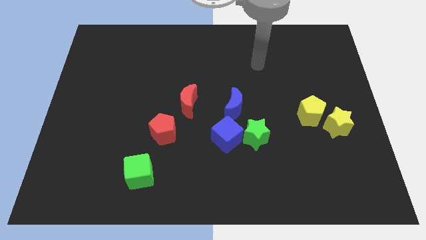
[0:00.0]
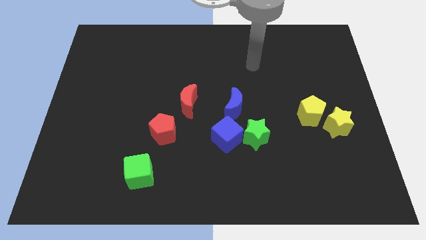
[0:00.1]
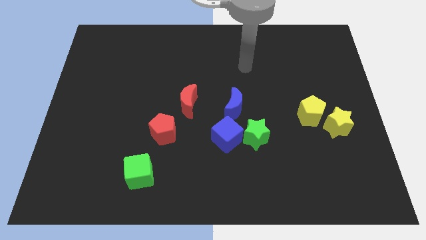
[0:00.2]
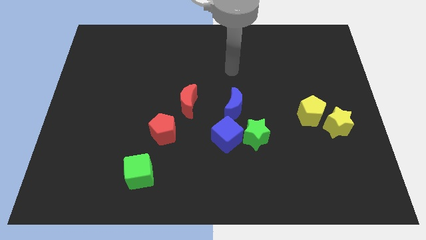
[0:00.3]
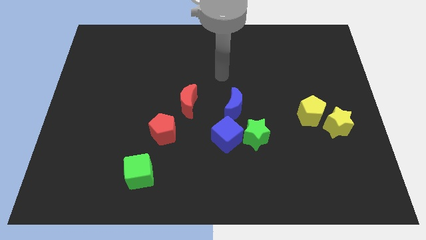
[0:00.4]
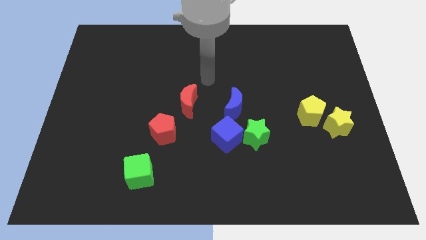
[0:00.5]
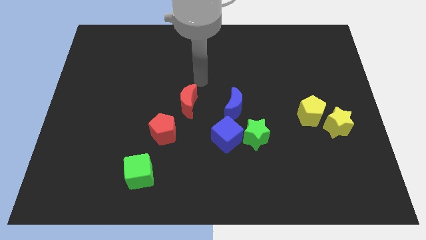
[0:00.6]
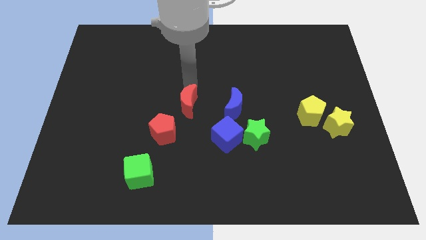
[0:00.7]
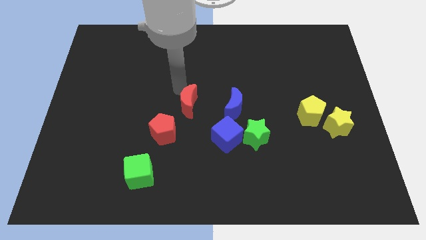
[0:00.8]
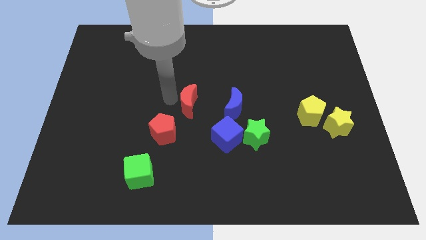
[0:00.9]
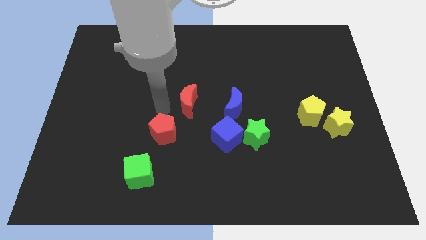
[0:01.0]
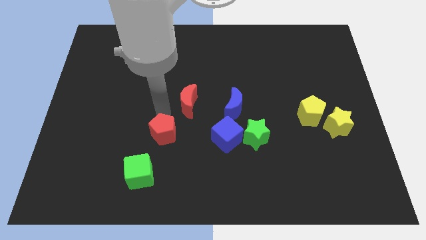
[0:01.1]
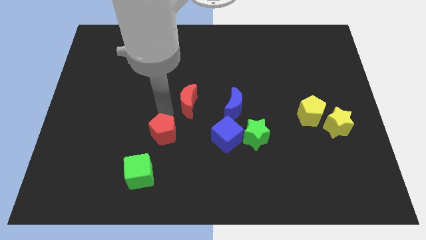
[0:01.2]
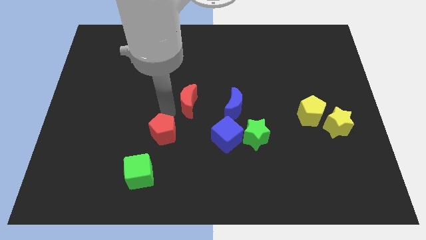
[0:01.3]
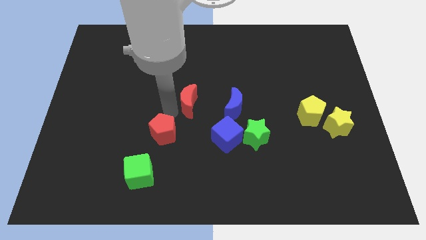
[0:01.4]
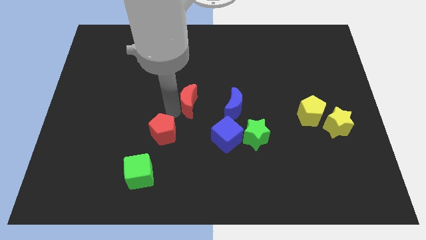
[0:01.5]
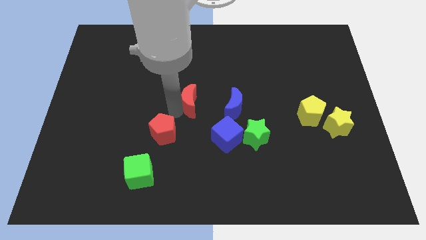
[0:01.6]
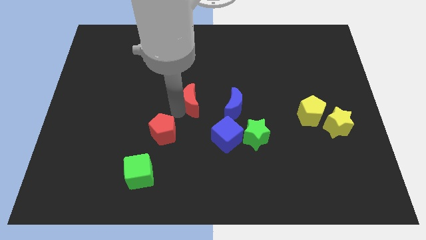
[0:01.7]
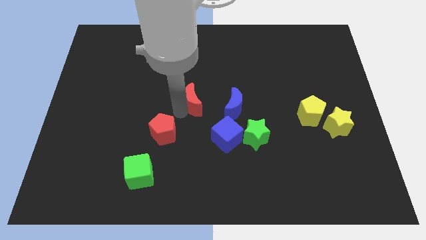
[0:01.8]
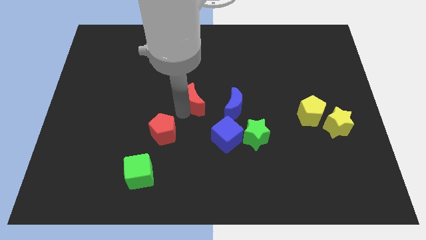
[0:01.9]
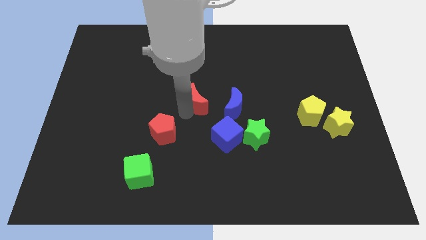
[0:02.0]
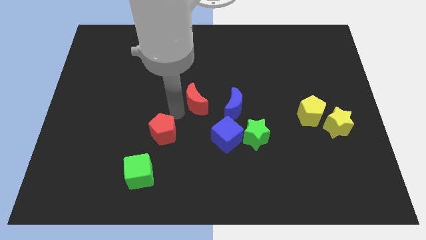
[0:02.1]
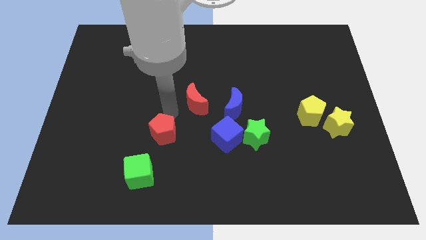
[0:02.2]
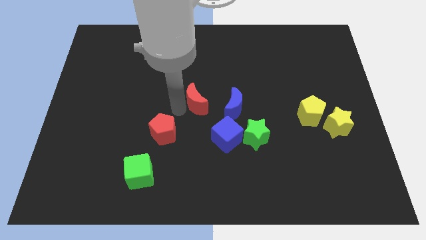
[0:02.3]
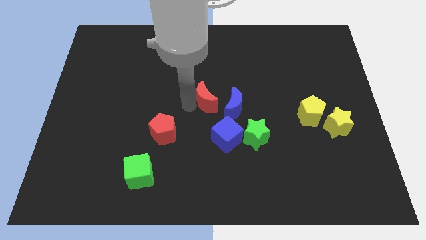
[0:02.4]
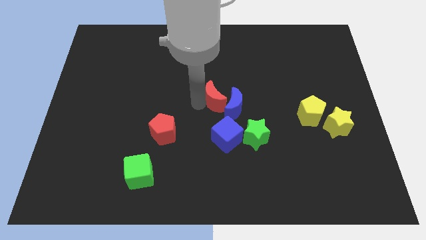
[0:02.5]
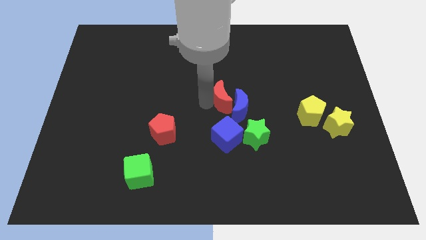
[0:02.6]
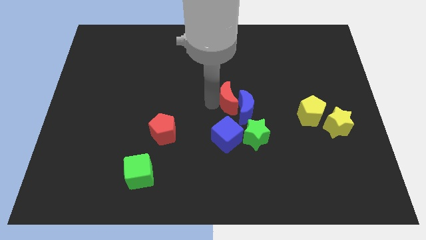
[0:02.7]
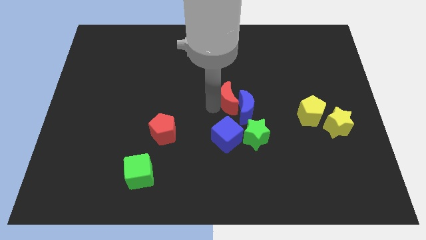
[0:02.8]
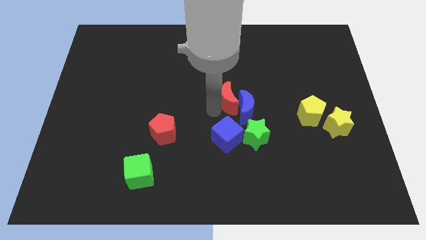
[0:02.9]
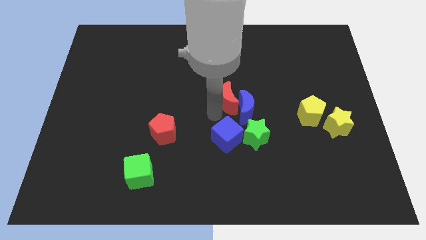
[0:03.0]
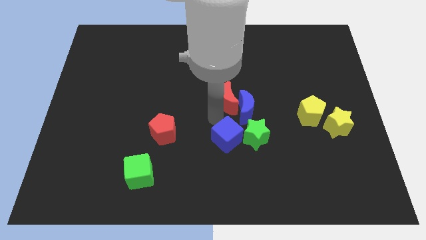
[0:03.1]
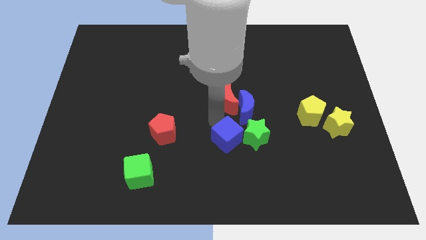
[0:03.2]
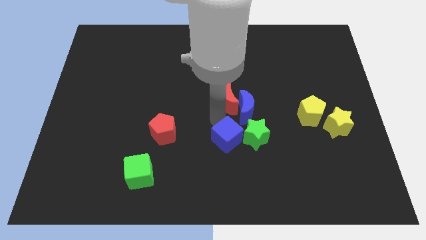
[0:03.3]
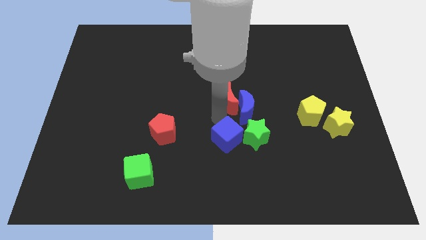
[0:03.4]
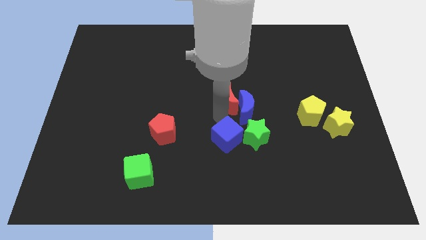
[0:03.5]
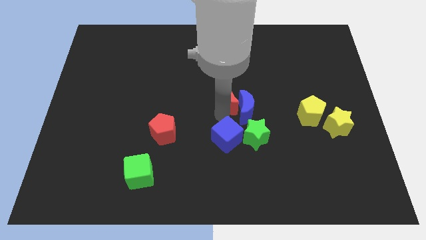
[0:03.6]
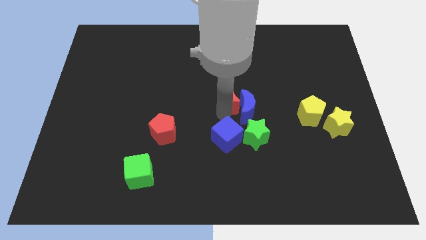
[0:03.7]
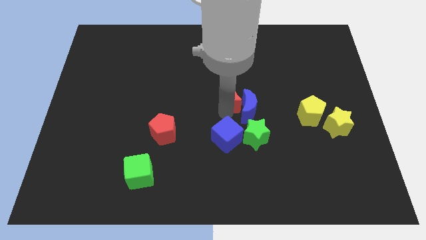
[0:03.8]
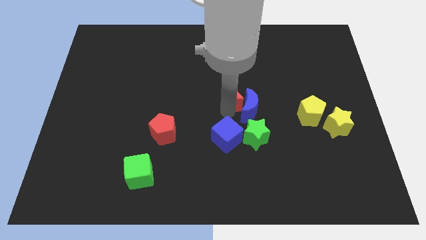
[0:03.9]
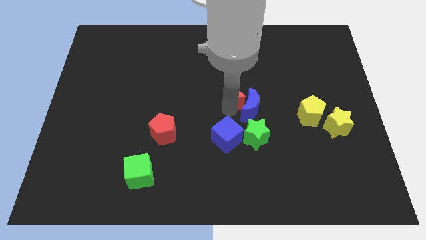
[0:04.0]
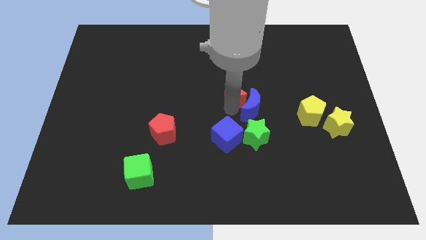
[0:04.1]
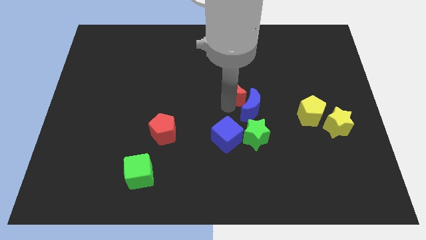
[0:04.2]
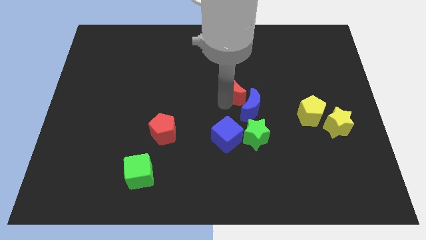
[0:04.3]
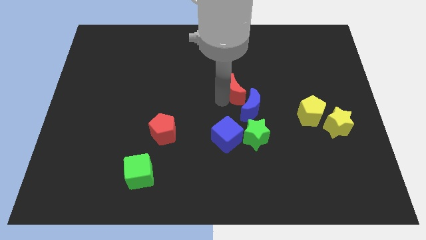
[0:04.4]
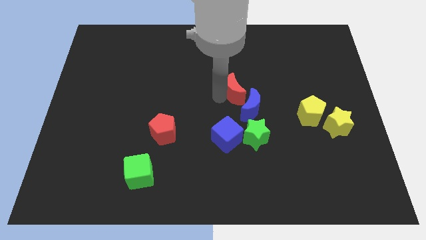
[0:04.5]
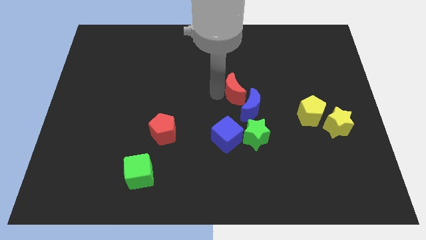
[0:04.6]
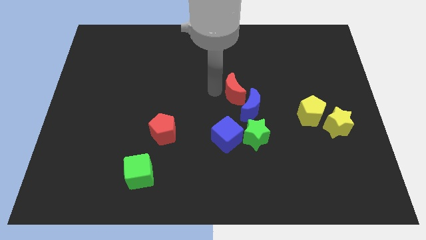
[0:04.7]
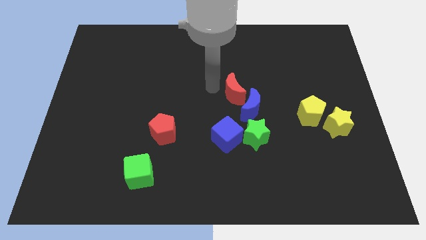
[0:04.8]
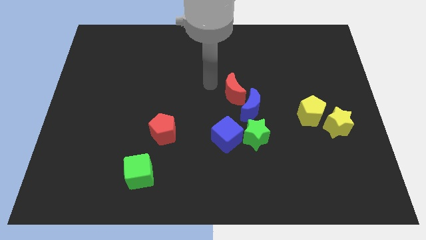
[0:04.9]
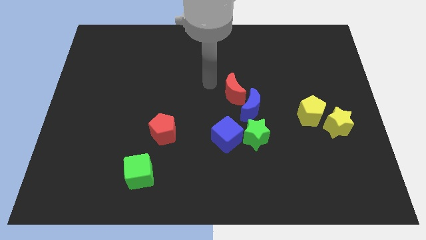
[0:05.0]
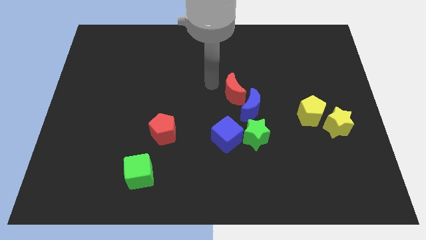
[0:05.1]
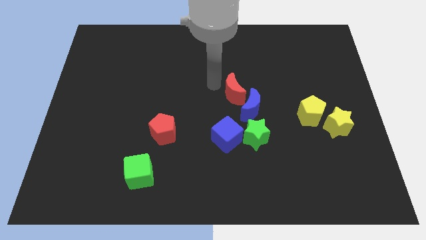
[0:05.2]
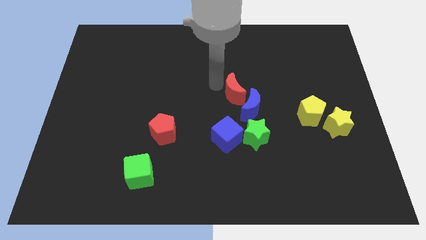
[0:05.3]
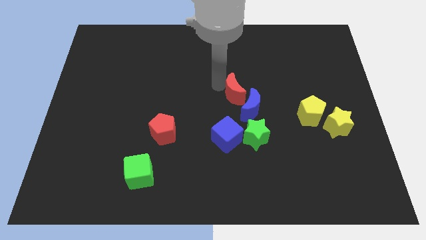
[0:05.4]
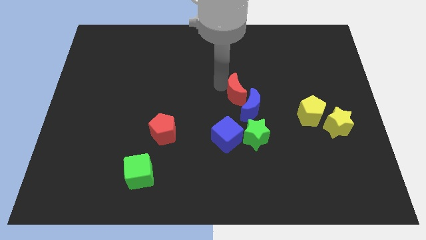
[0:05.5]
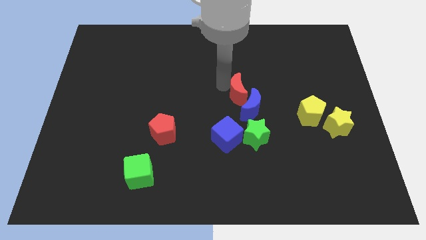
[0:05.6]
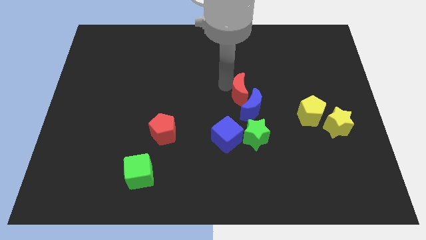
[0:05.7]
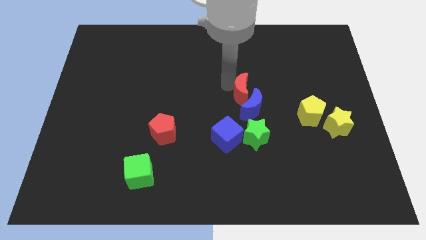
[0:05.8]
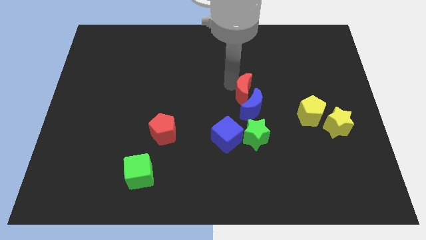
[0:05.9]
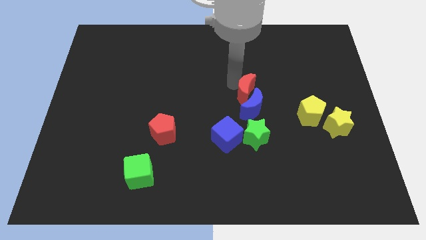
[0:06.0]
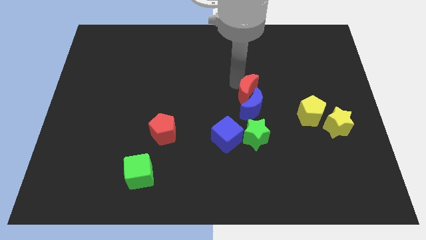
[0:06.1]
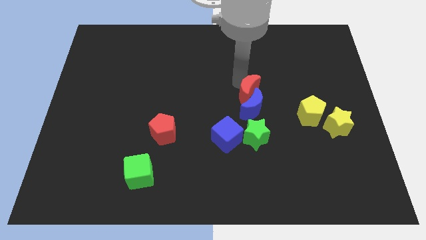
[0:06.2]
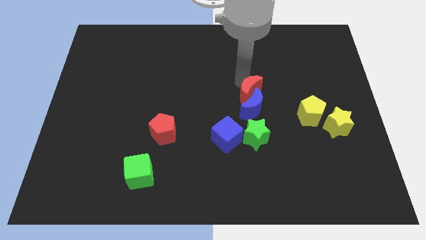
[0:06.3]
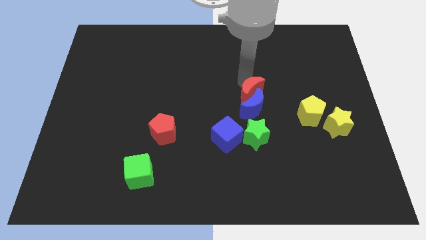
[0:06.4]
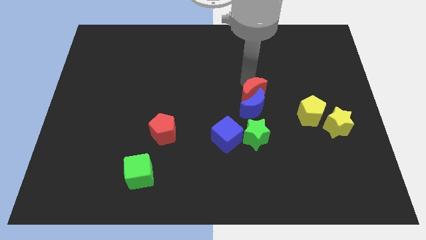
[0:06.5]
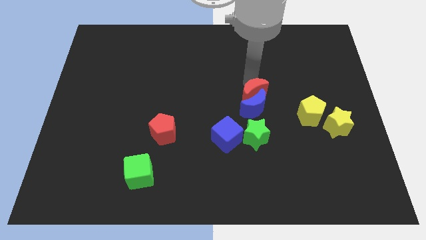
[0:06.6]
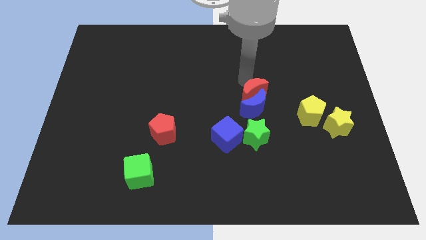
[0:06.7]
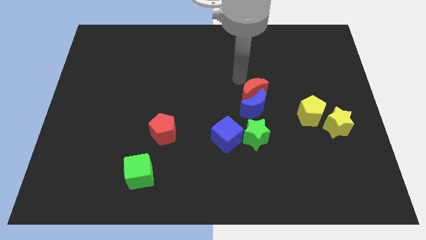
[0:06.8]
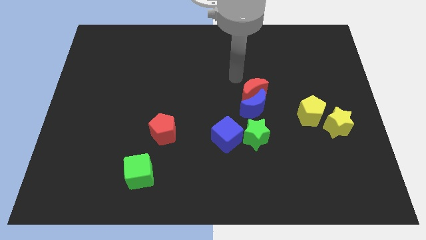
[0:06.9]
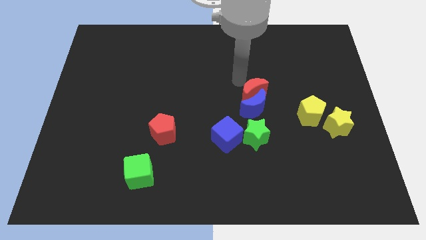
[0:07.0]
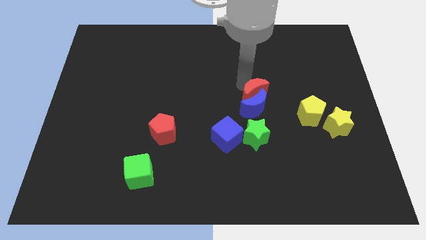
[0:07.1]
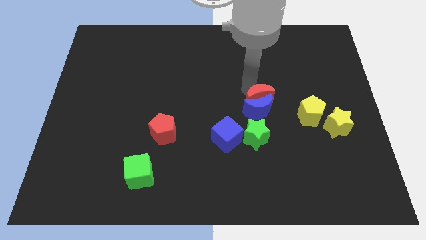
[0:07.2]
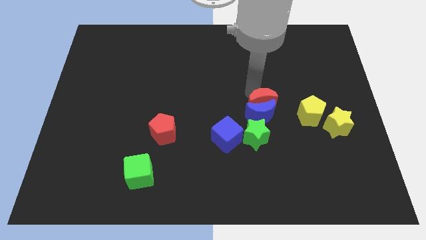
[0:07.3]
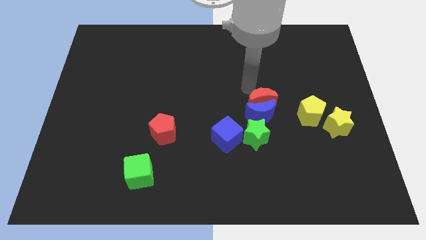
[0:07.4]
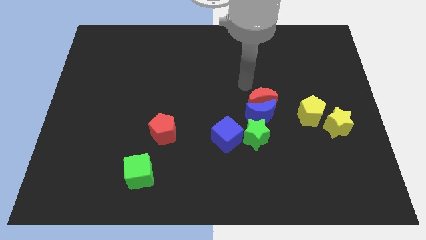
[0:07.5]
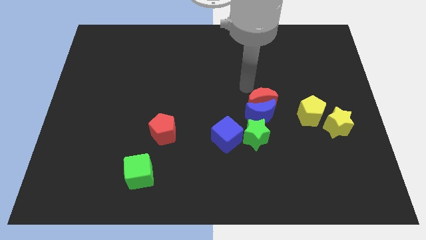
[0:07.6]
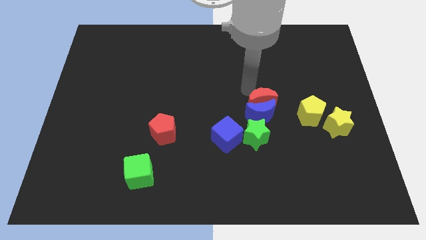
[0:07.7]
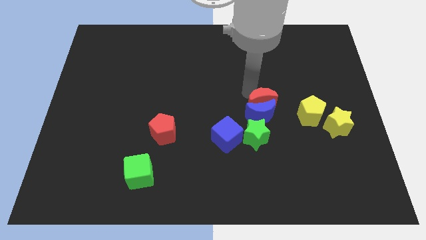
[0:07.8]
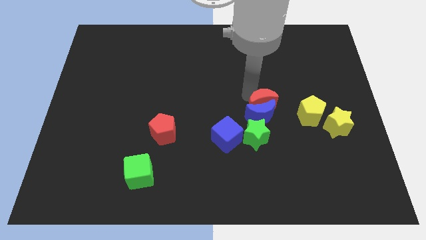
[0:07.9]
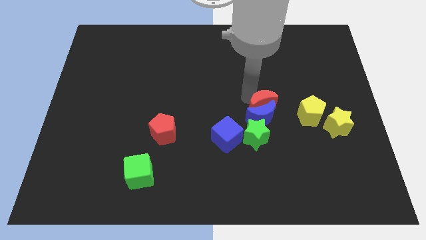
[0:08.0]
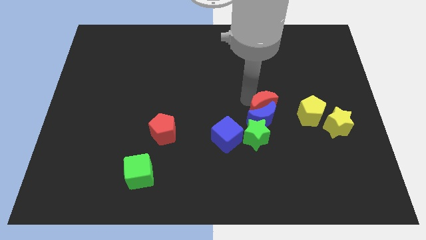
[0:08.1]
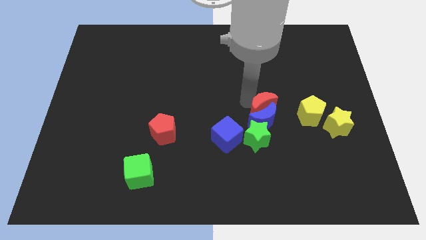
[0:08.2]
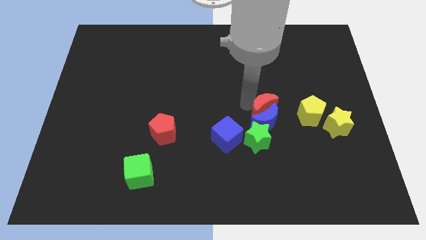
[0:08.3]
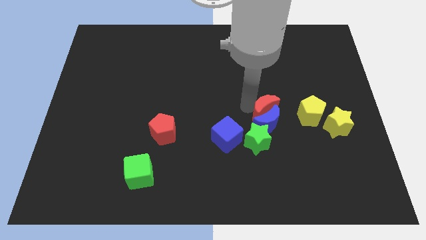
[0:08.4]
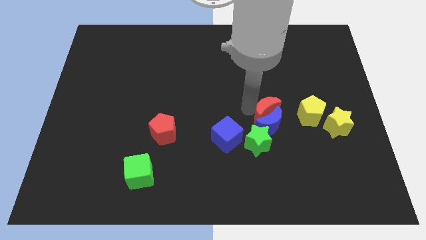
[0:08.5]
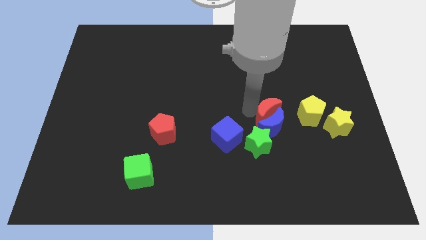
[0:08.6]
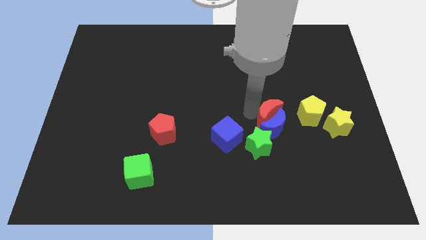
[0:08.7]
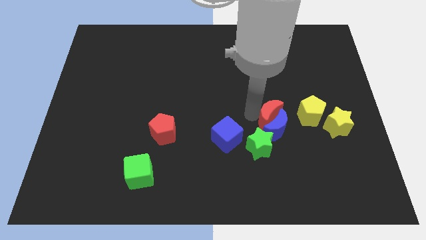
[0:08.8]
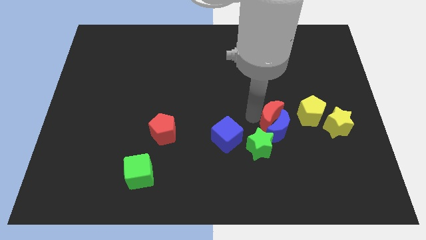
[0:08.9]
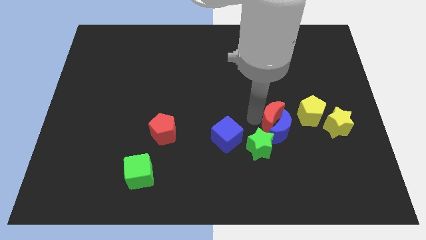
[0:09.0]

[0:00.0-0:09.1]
put the red moon to the right of the blue cube
